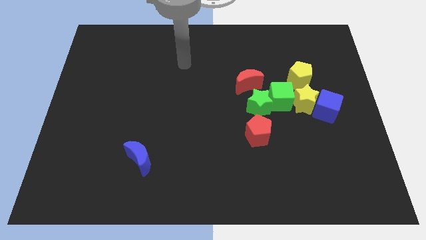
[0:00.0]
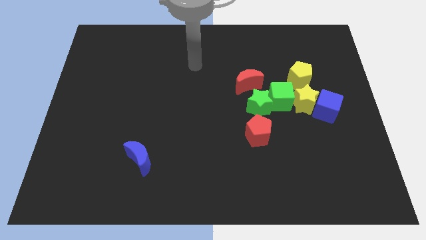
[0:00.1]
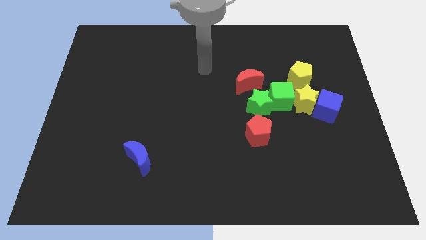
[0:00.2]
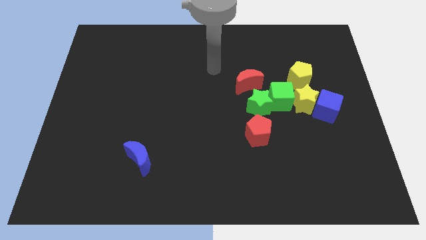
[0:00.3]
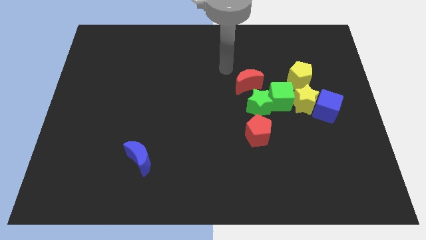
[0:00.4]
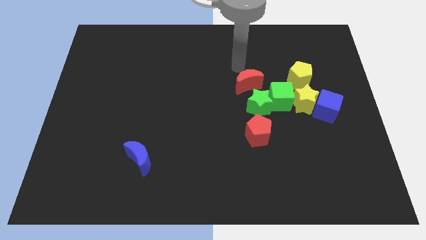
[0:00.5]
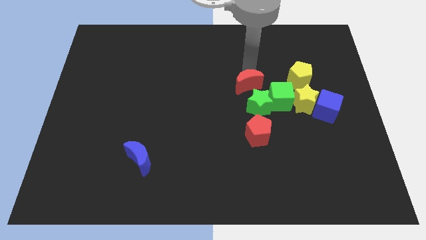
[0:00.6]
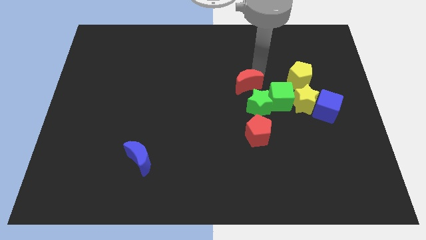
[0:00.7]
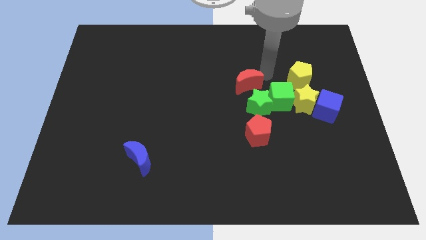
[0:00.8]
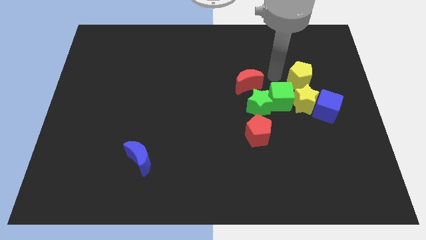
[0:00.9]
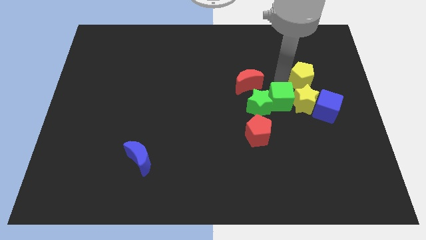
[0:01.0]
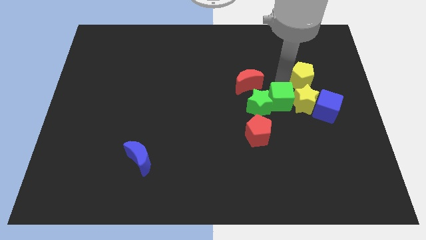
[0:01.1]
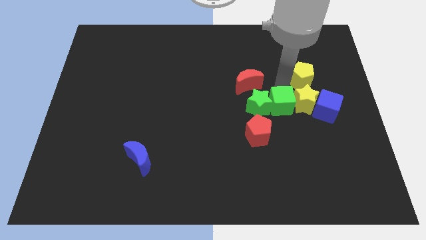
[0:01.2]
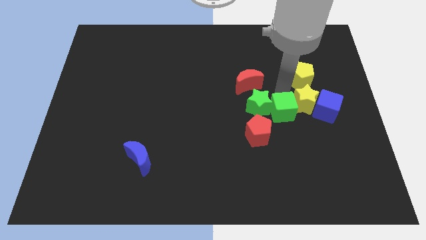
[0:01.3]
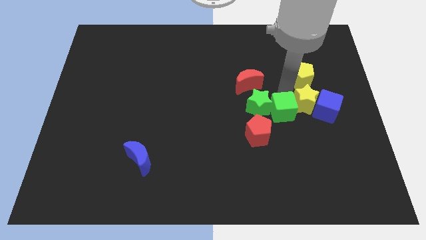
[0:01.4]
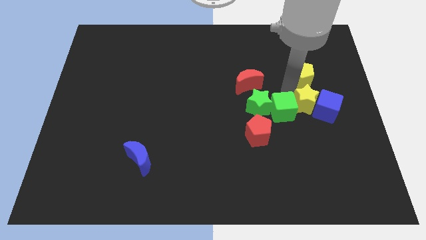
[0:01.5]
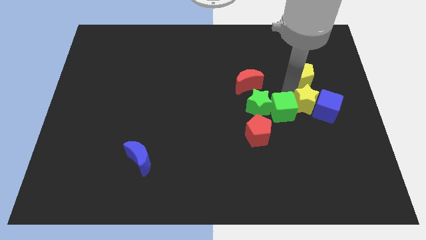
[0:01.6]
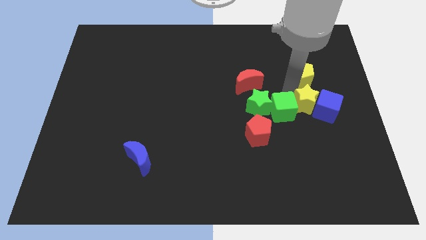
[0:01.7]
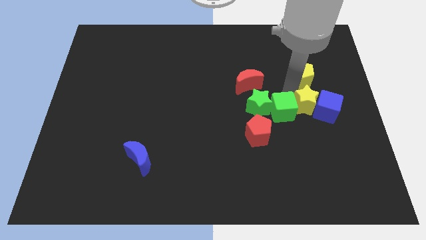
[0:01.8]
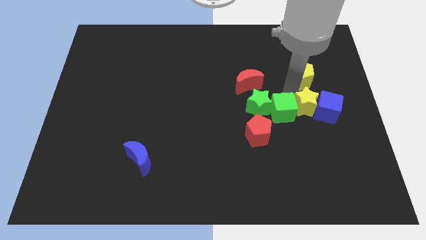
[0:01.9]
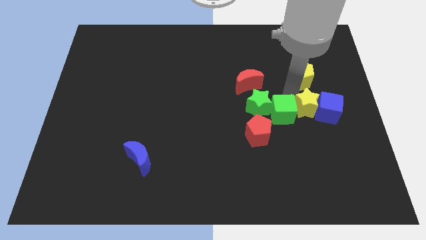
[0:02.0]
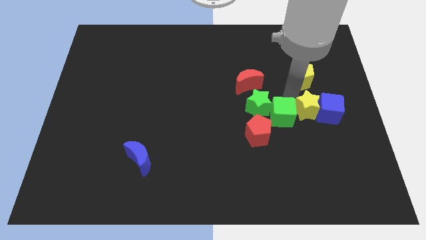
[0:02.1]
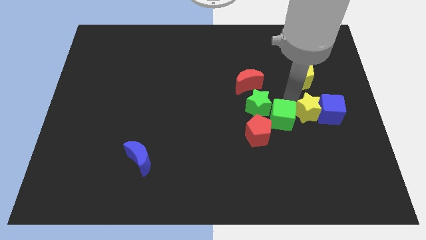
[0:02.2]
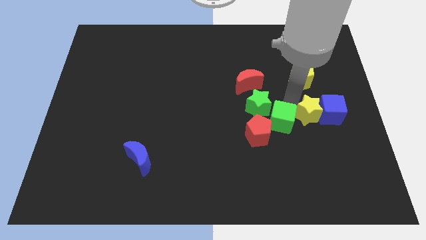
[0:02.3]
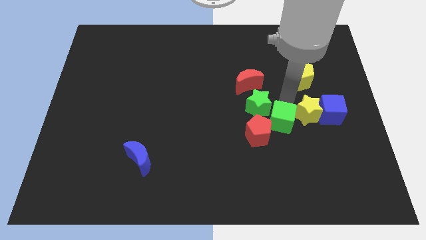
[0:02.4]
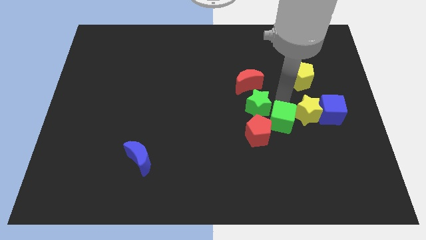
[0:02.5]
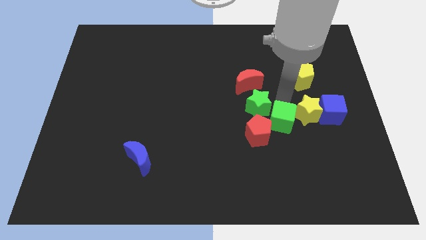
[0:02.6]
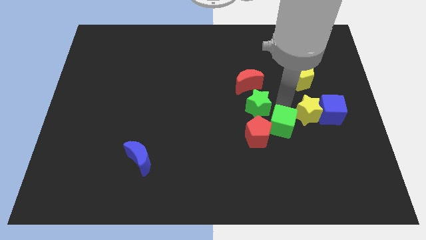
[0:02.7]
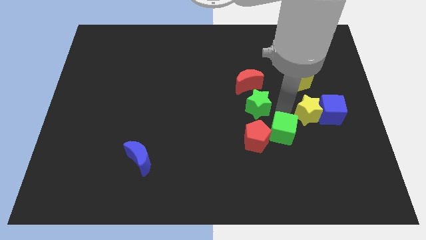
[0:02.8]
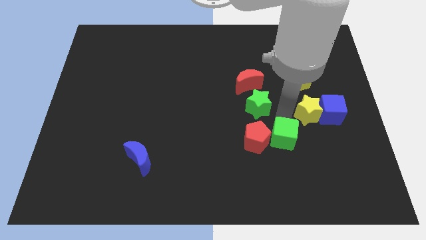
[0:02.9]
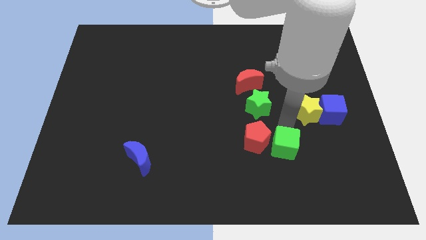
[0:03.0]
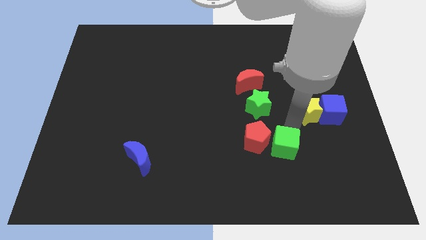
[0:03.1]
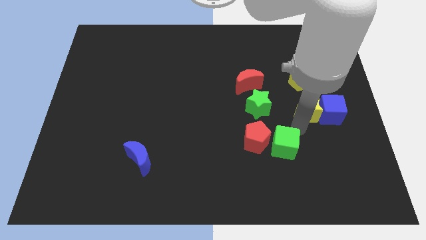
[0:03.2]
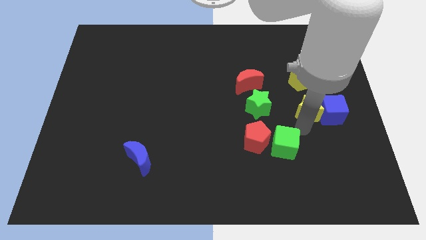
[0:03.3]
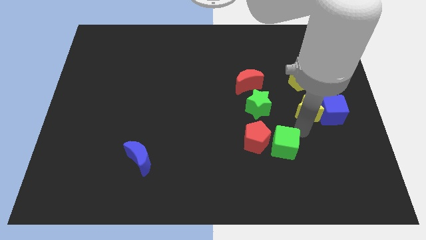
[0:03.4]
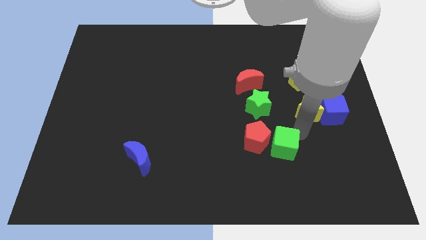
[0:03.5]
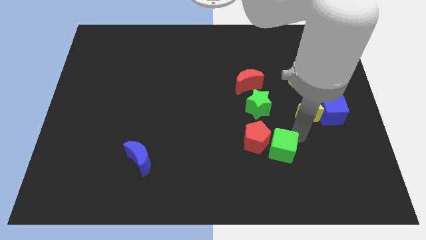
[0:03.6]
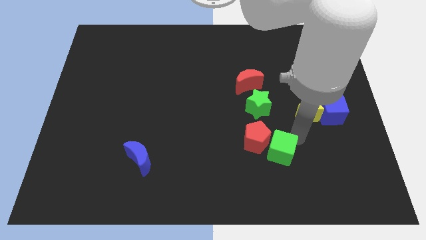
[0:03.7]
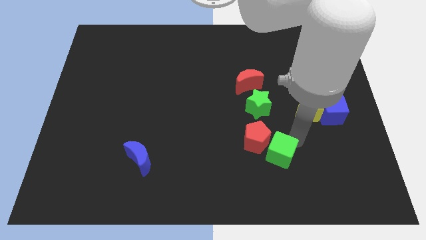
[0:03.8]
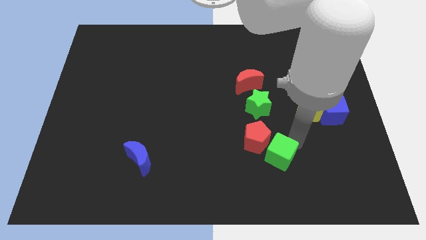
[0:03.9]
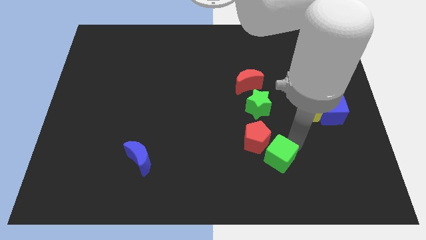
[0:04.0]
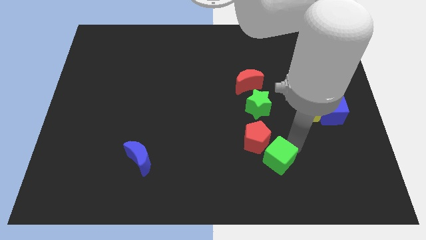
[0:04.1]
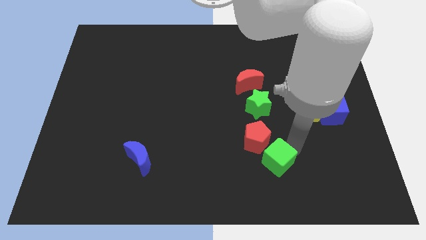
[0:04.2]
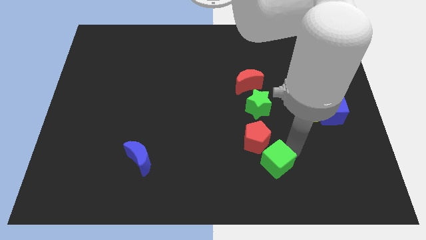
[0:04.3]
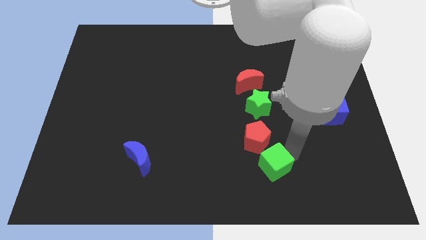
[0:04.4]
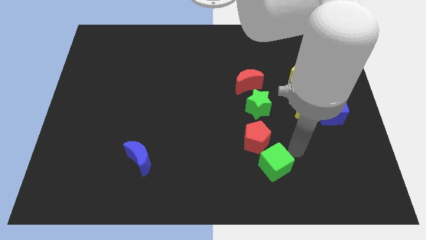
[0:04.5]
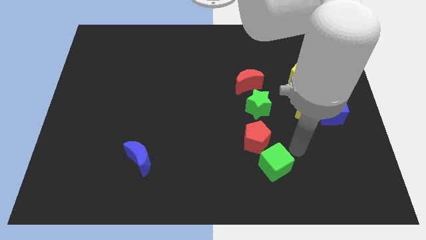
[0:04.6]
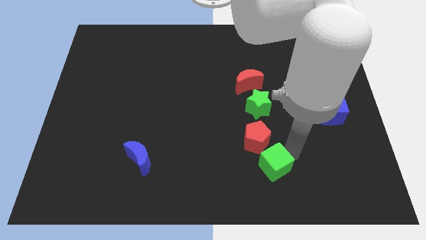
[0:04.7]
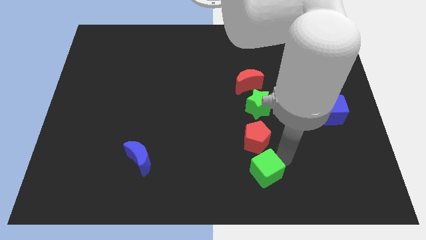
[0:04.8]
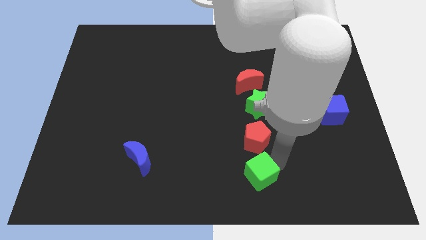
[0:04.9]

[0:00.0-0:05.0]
put the green cube to the bottom side

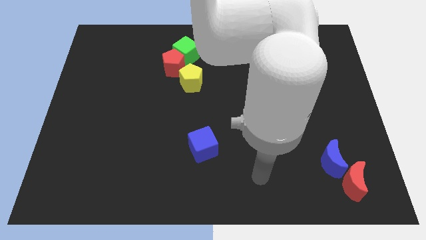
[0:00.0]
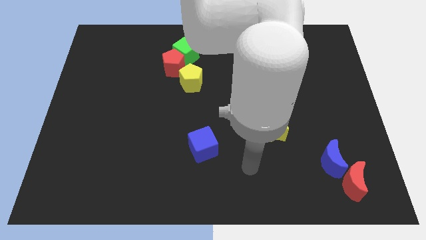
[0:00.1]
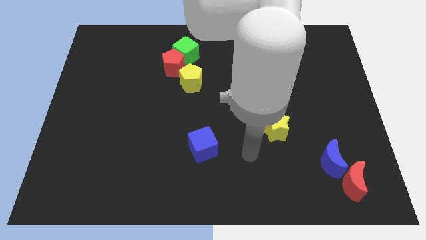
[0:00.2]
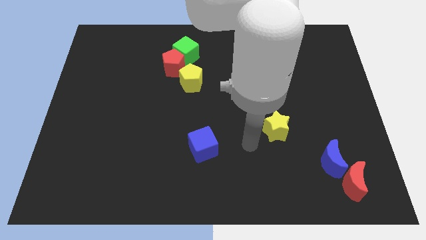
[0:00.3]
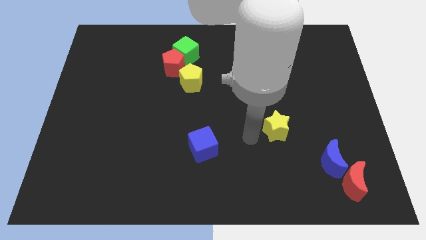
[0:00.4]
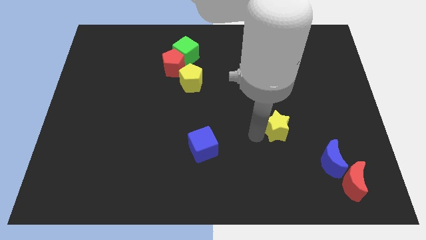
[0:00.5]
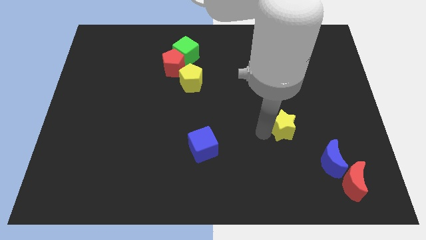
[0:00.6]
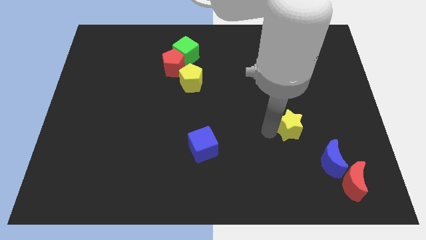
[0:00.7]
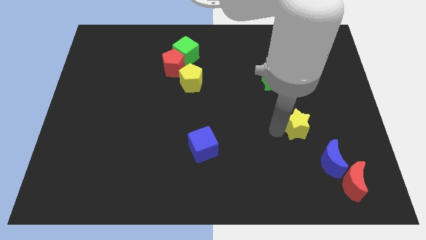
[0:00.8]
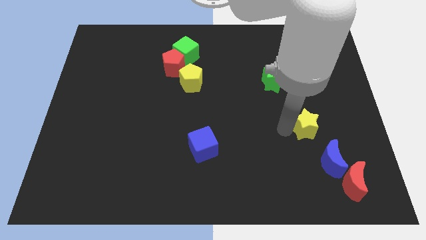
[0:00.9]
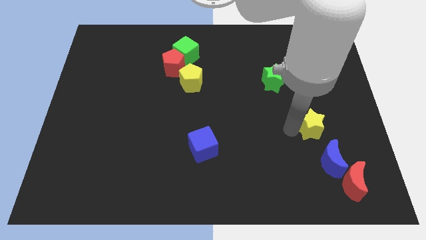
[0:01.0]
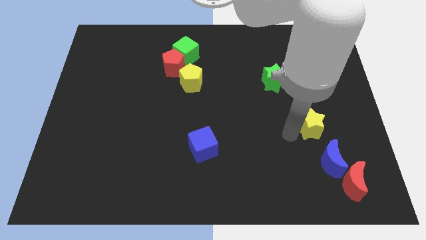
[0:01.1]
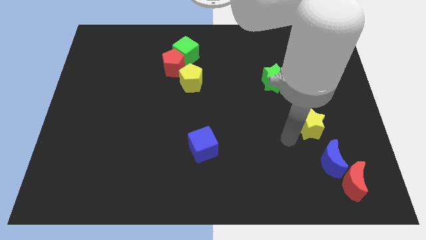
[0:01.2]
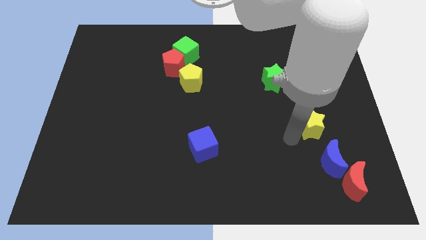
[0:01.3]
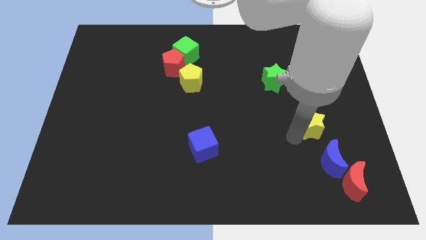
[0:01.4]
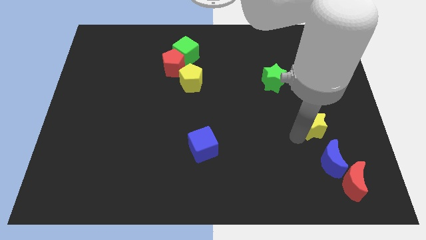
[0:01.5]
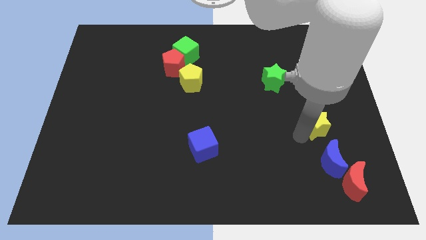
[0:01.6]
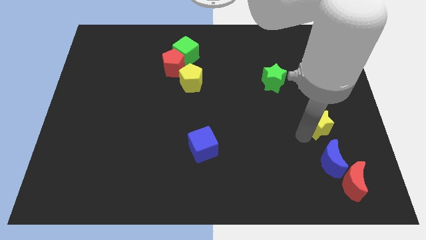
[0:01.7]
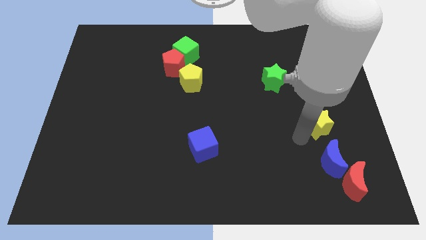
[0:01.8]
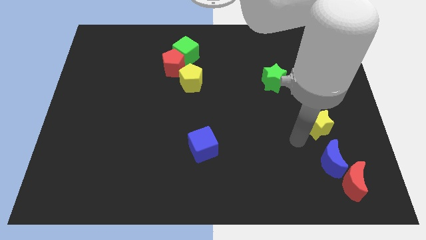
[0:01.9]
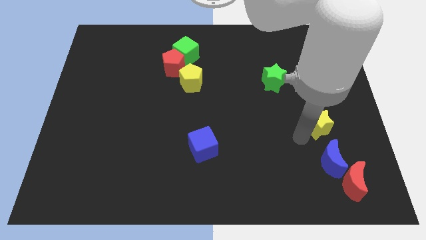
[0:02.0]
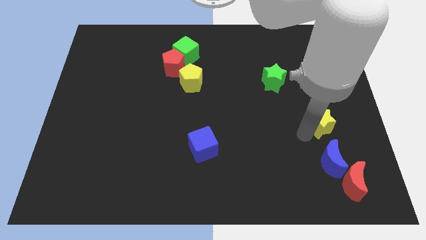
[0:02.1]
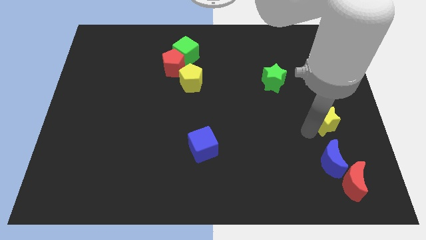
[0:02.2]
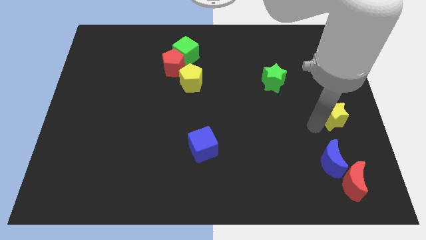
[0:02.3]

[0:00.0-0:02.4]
slide the yellow star to the right side of the board
